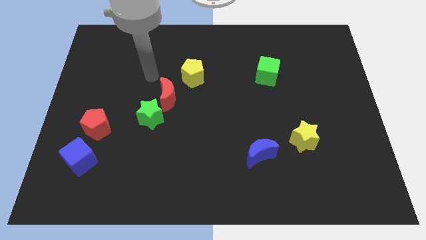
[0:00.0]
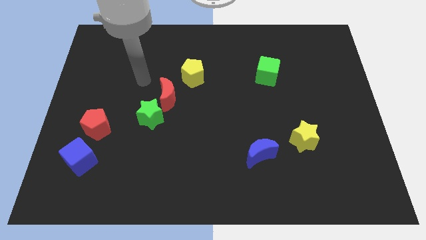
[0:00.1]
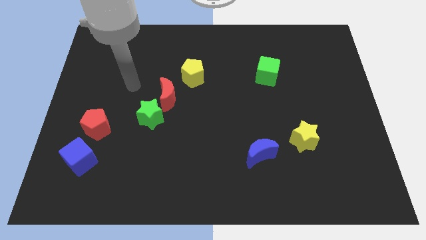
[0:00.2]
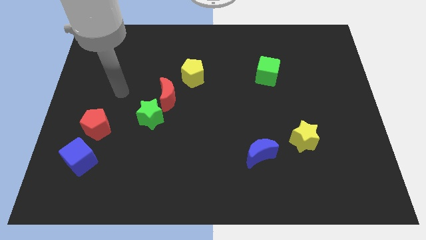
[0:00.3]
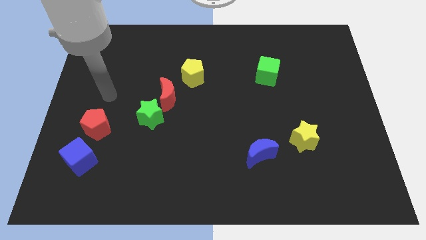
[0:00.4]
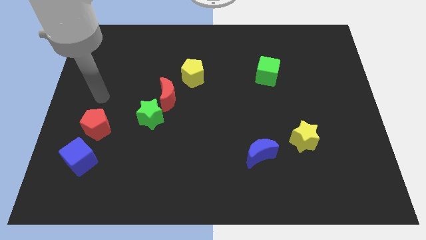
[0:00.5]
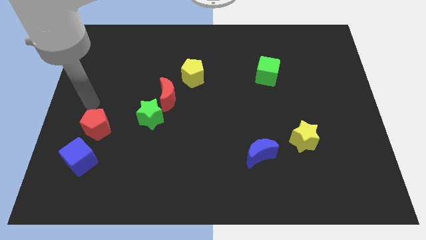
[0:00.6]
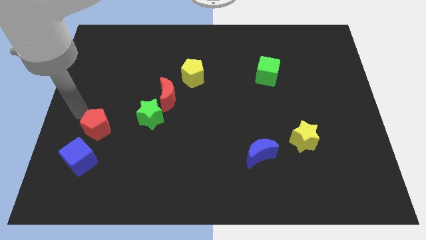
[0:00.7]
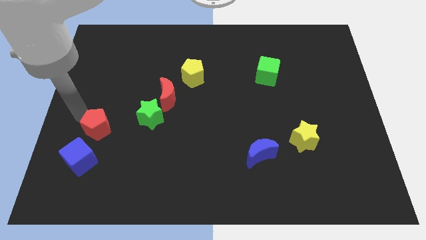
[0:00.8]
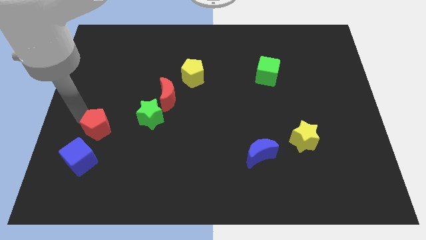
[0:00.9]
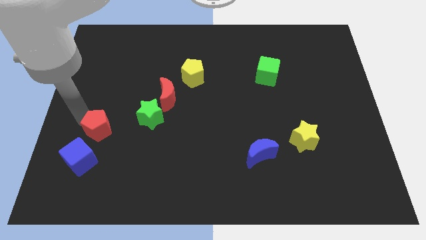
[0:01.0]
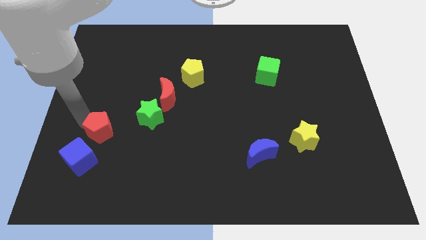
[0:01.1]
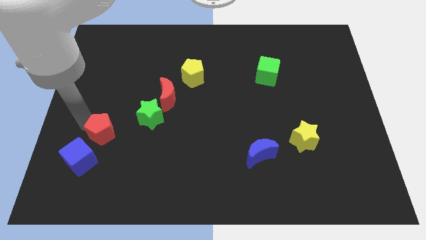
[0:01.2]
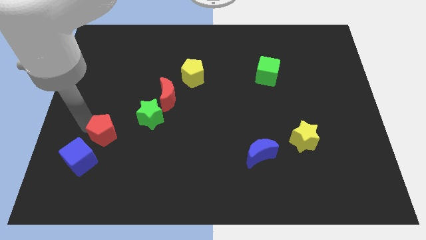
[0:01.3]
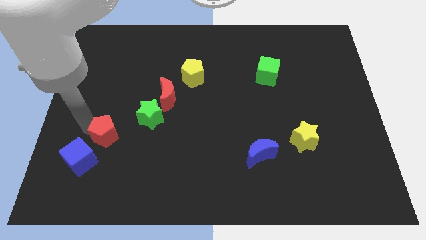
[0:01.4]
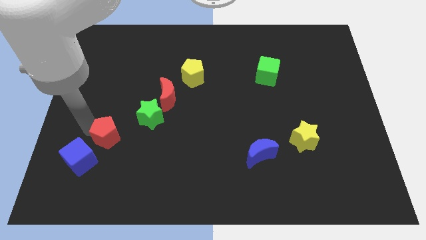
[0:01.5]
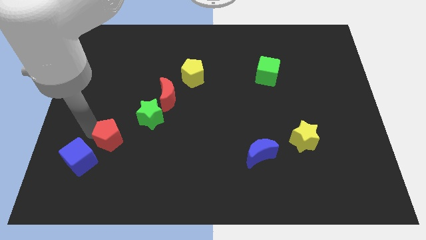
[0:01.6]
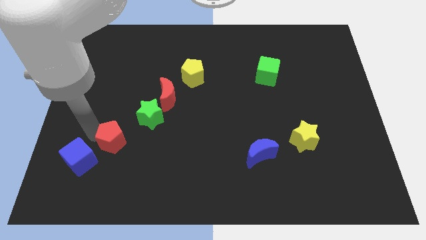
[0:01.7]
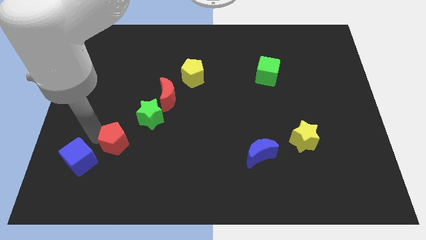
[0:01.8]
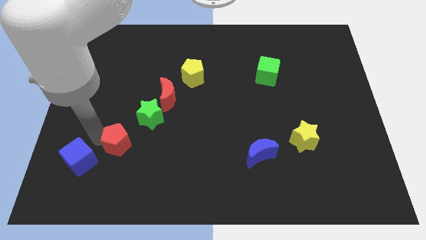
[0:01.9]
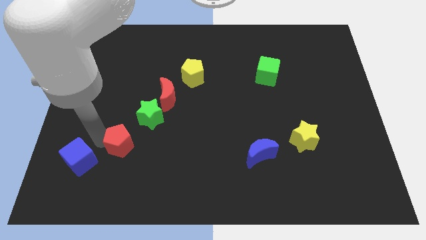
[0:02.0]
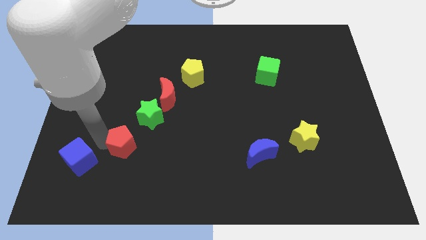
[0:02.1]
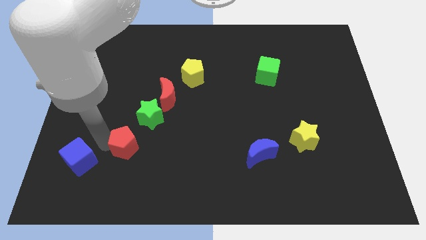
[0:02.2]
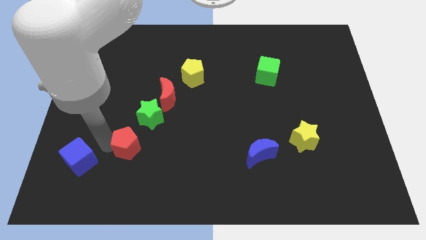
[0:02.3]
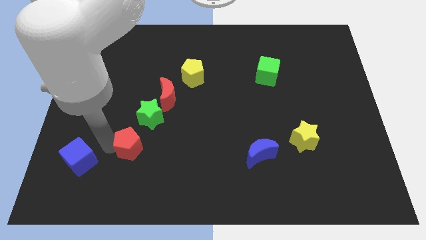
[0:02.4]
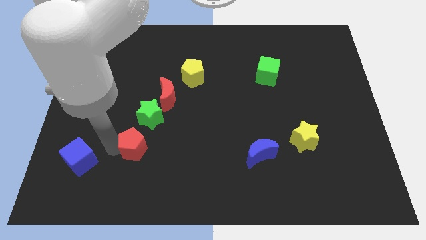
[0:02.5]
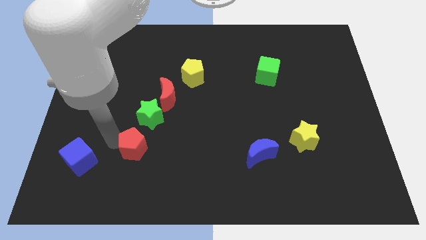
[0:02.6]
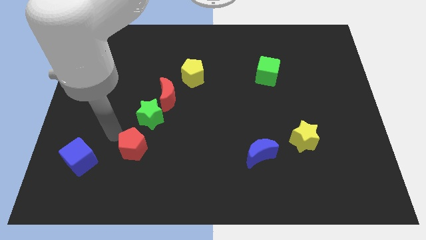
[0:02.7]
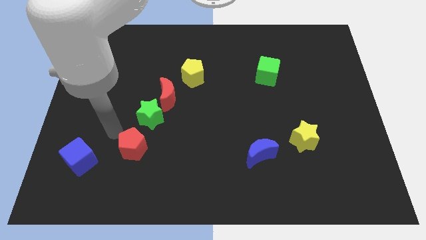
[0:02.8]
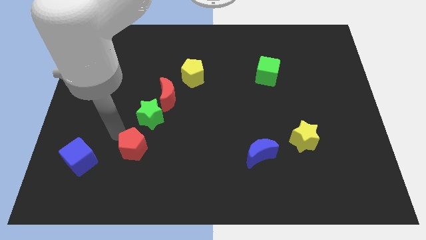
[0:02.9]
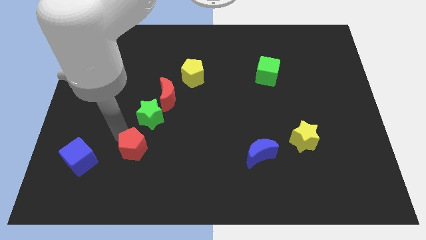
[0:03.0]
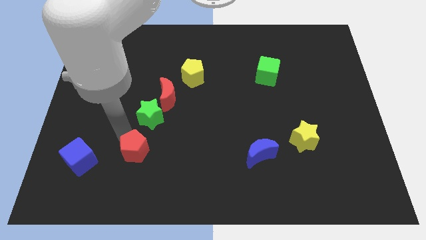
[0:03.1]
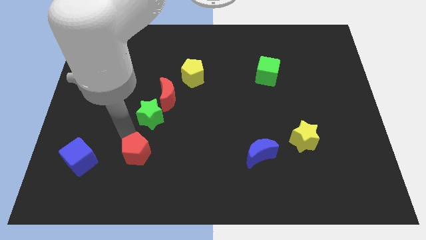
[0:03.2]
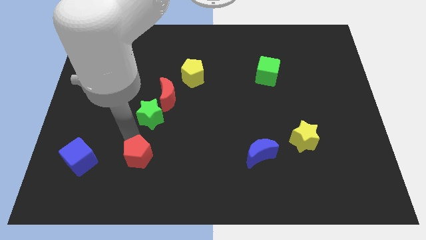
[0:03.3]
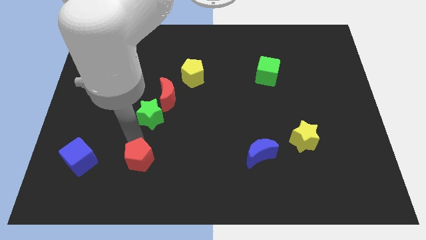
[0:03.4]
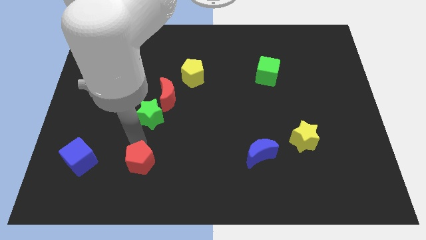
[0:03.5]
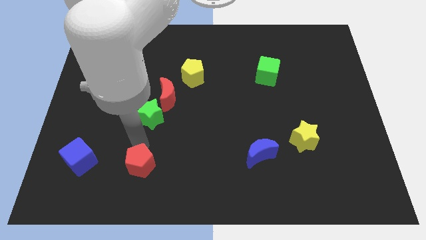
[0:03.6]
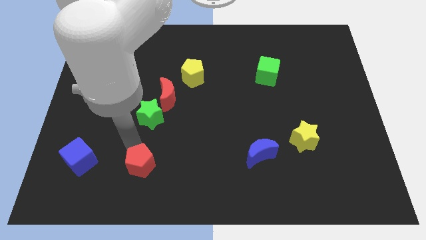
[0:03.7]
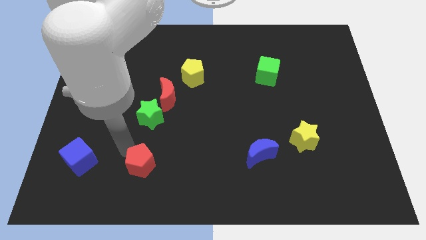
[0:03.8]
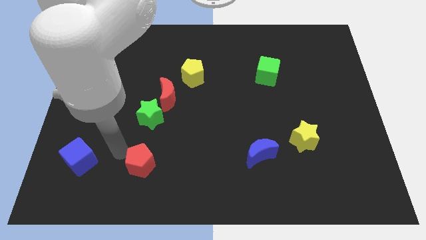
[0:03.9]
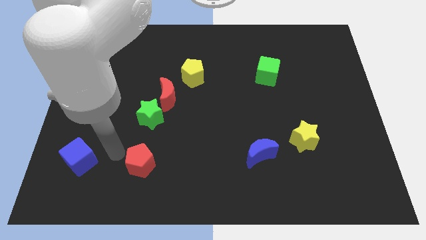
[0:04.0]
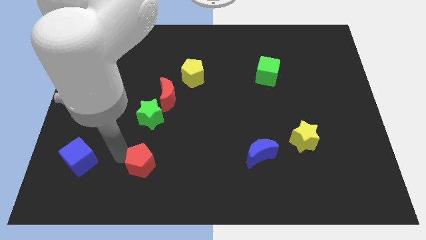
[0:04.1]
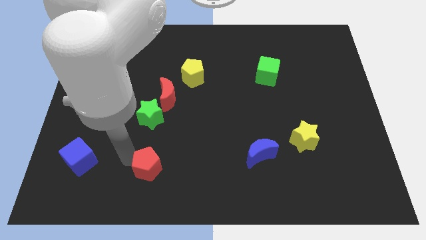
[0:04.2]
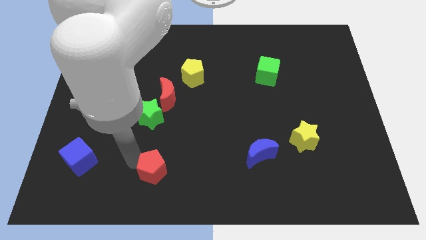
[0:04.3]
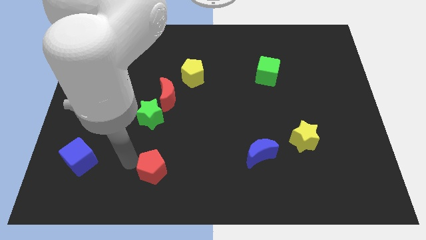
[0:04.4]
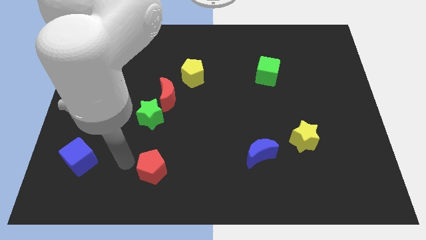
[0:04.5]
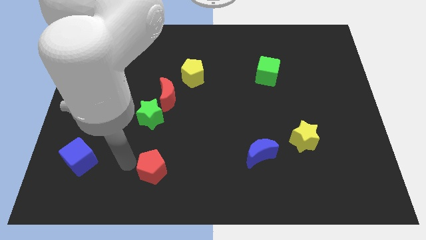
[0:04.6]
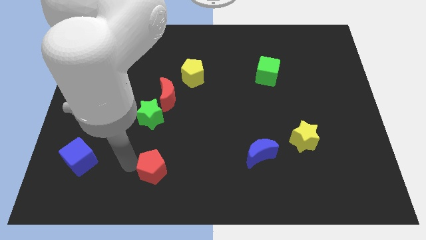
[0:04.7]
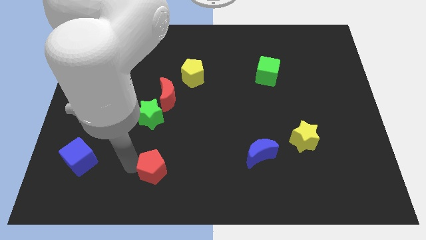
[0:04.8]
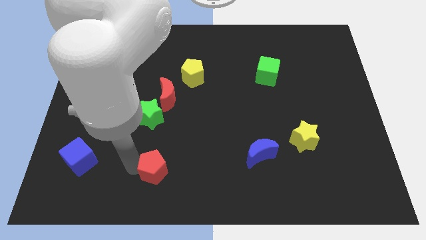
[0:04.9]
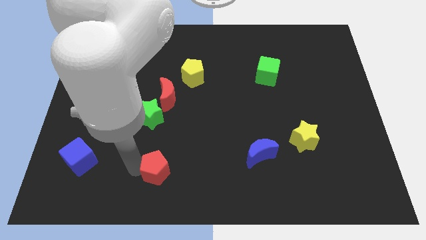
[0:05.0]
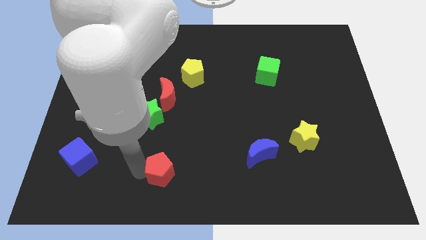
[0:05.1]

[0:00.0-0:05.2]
slide the red pentagon to the bottom side
